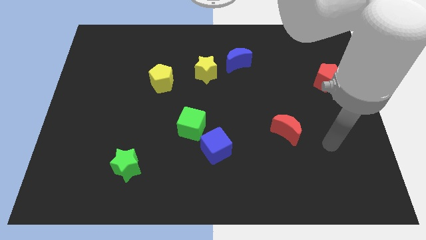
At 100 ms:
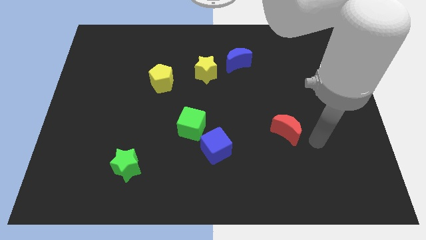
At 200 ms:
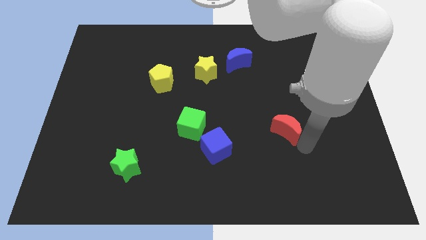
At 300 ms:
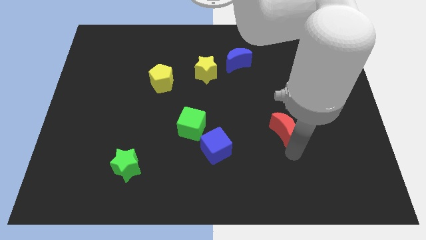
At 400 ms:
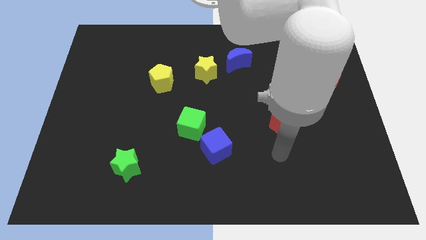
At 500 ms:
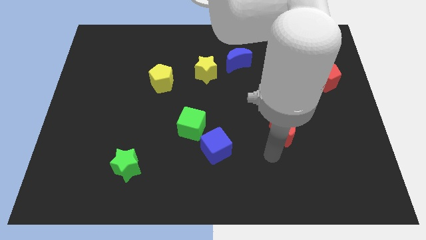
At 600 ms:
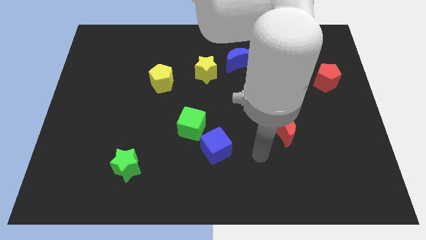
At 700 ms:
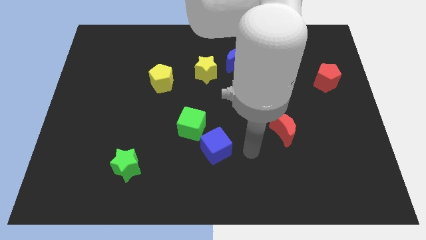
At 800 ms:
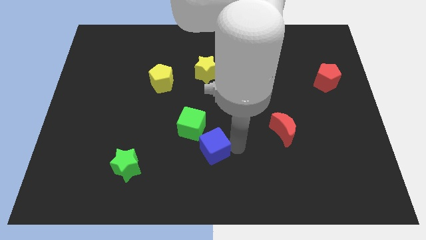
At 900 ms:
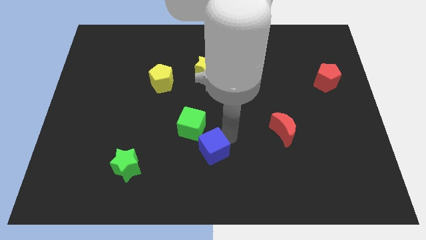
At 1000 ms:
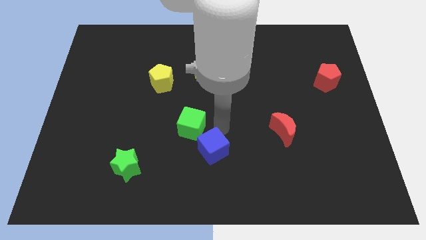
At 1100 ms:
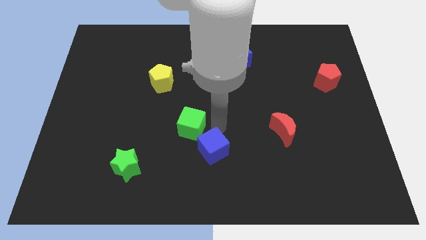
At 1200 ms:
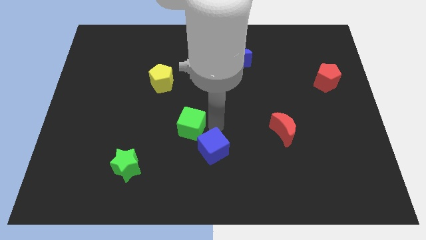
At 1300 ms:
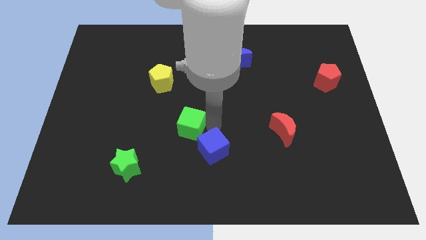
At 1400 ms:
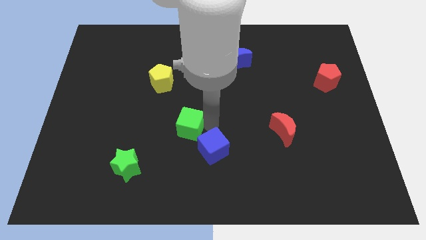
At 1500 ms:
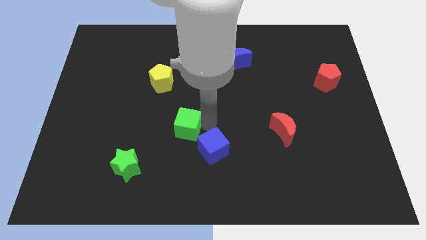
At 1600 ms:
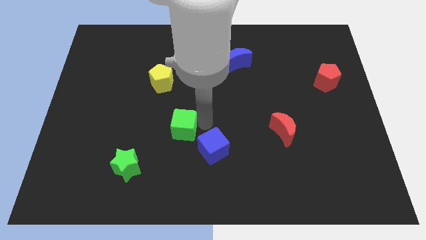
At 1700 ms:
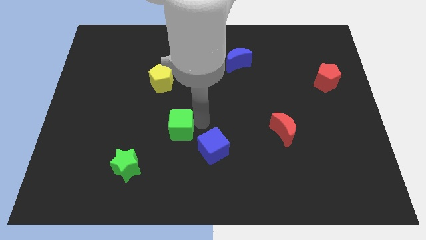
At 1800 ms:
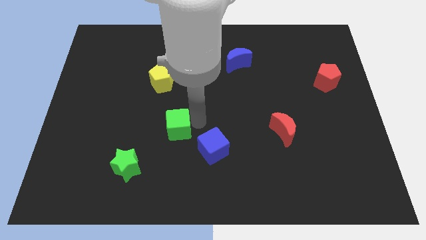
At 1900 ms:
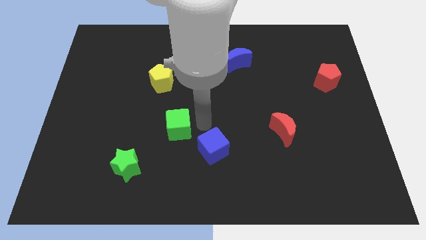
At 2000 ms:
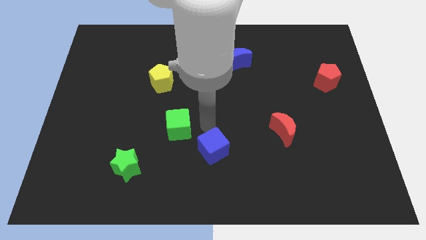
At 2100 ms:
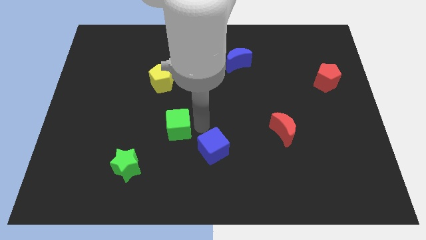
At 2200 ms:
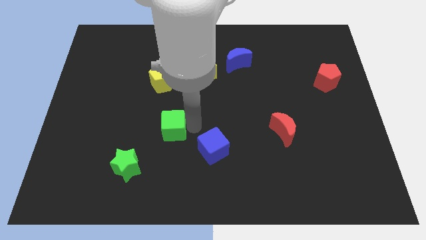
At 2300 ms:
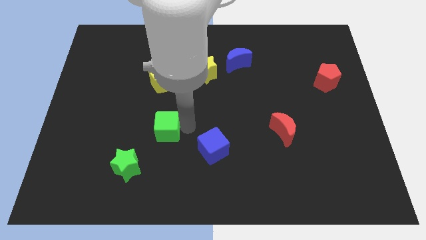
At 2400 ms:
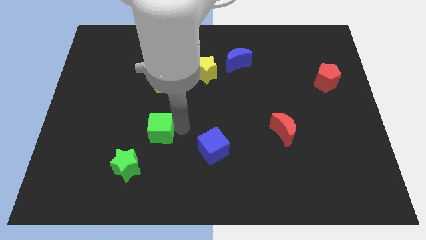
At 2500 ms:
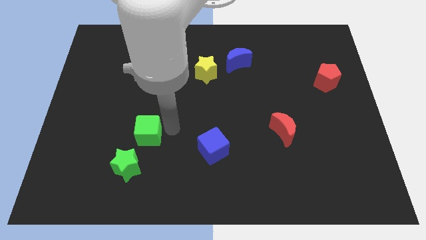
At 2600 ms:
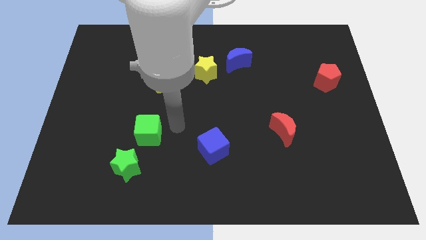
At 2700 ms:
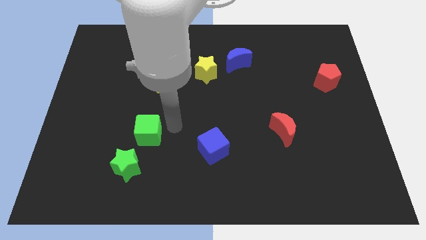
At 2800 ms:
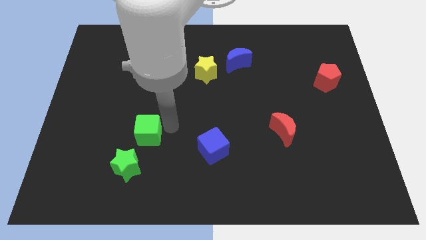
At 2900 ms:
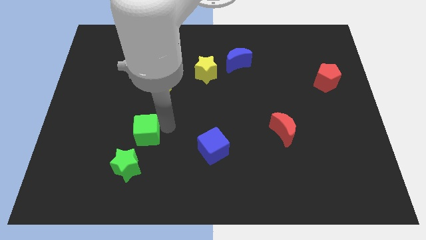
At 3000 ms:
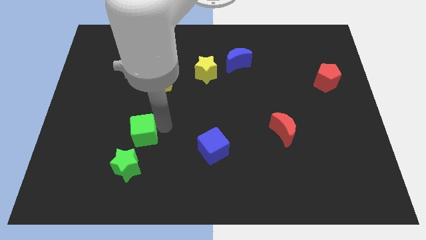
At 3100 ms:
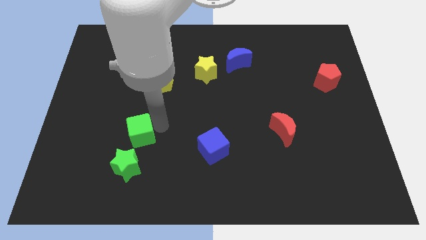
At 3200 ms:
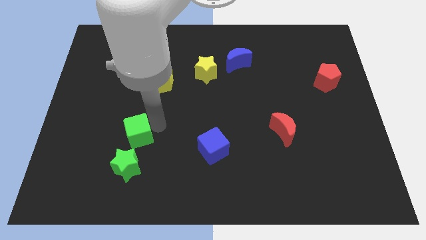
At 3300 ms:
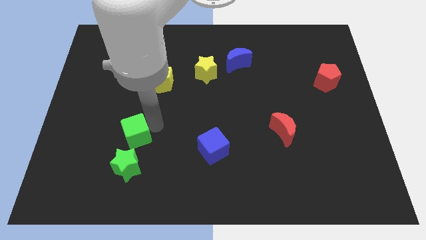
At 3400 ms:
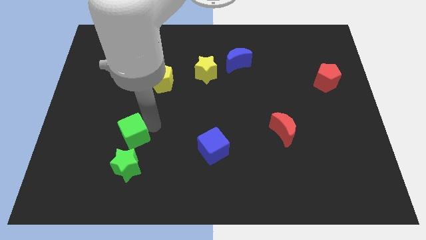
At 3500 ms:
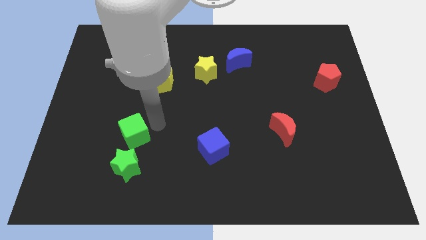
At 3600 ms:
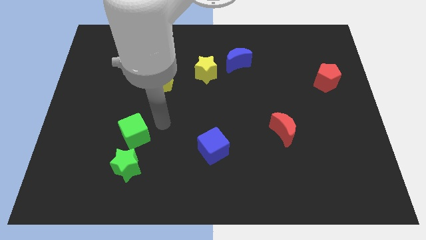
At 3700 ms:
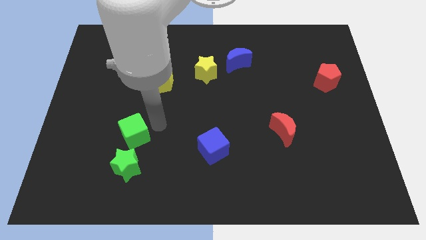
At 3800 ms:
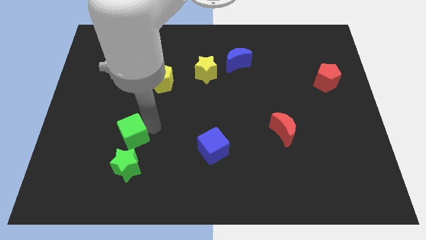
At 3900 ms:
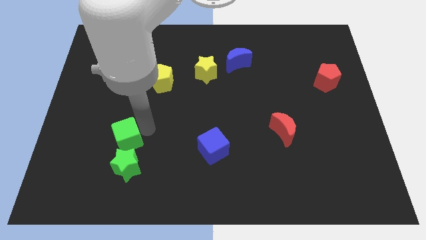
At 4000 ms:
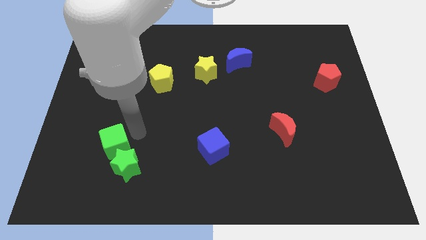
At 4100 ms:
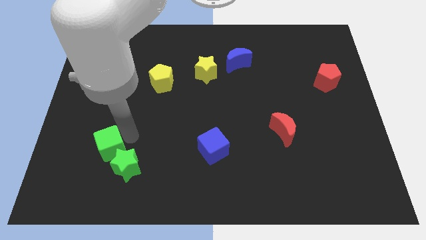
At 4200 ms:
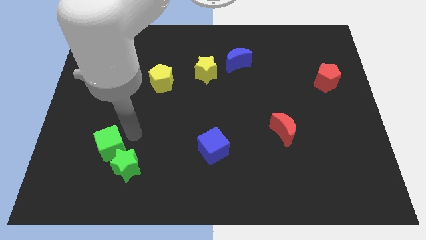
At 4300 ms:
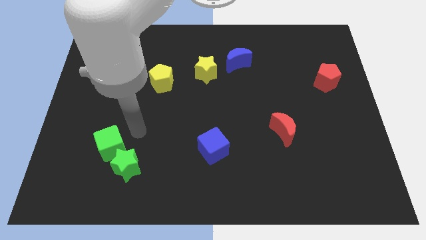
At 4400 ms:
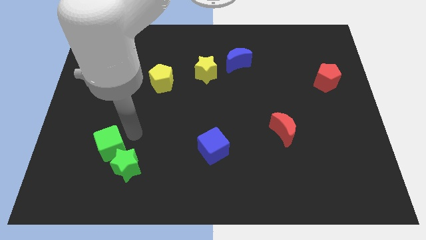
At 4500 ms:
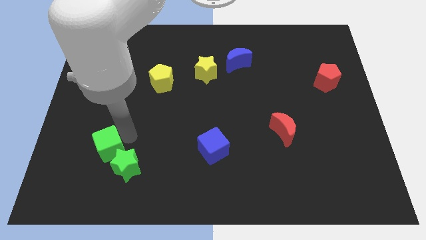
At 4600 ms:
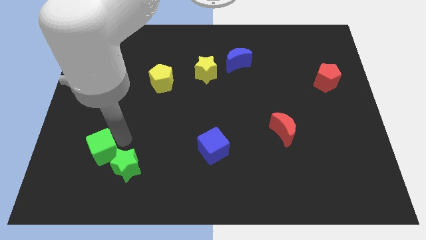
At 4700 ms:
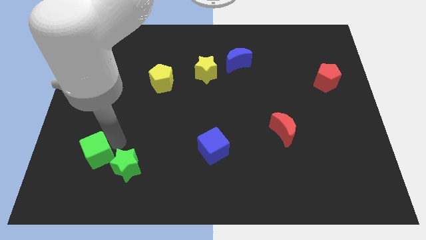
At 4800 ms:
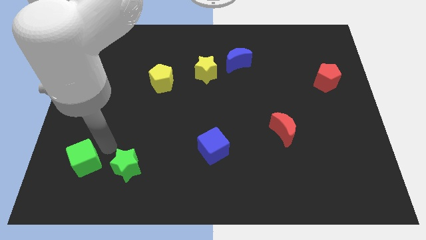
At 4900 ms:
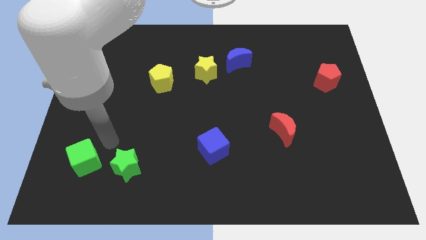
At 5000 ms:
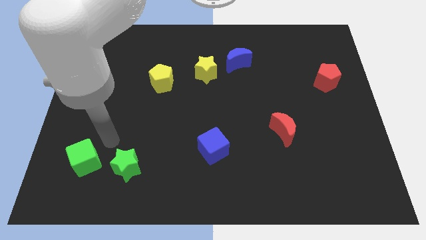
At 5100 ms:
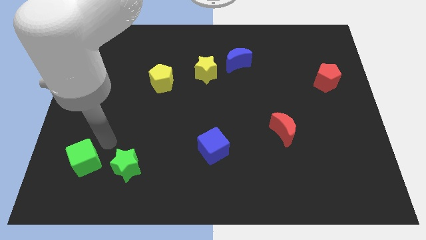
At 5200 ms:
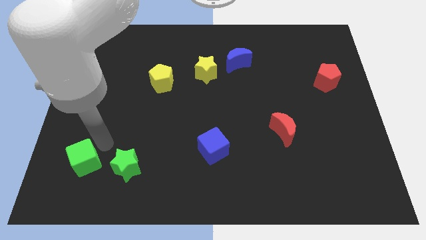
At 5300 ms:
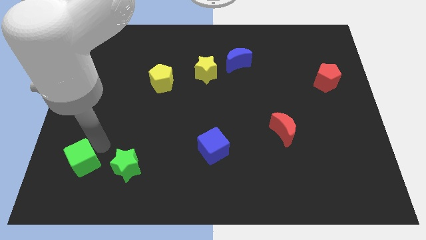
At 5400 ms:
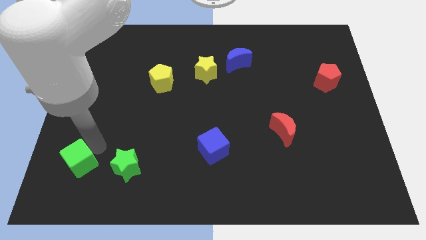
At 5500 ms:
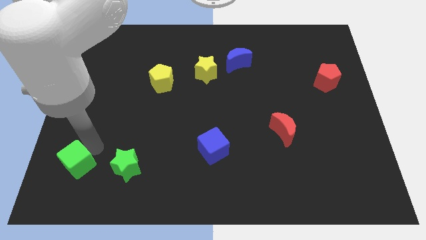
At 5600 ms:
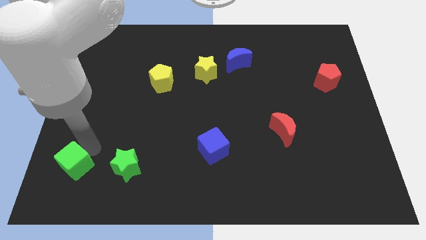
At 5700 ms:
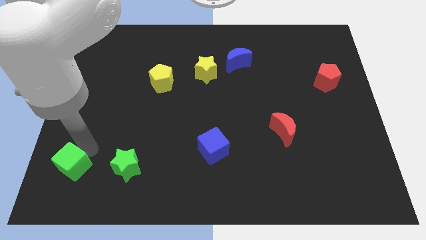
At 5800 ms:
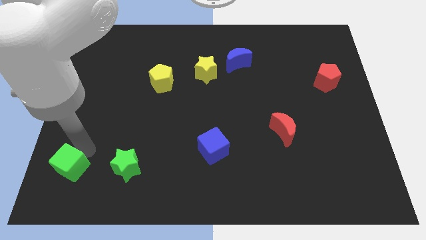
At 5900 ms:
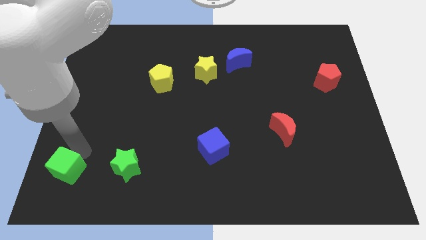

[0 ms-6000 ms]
push the green cube to the bottom left corner

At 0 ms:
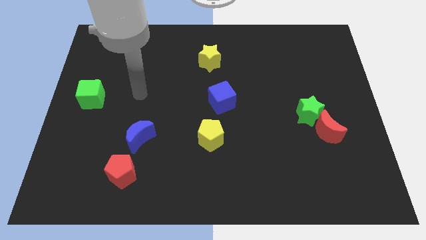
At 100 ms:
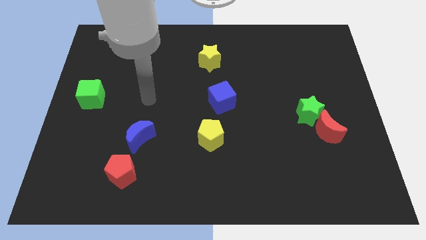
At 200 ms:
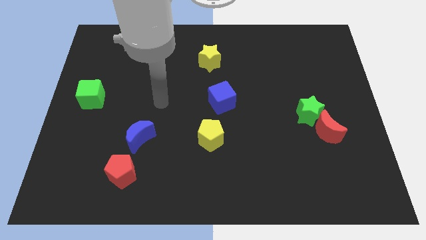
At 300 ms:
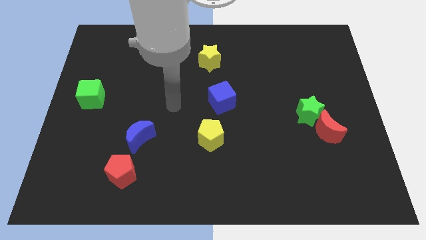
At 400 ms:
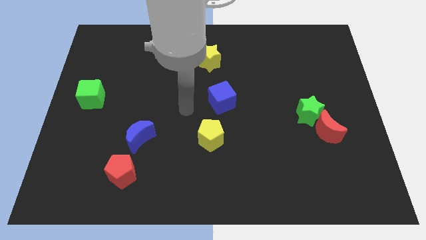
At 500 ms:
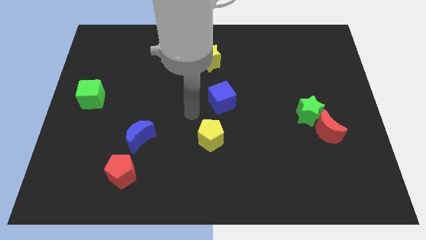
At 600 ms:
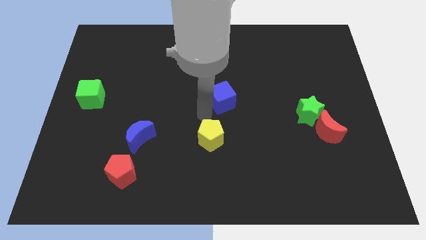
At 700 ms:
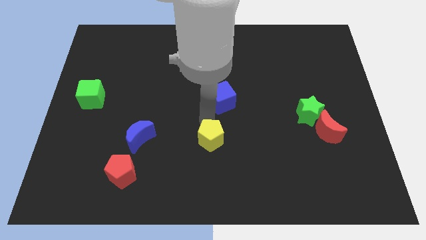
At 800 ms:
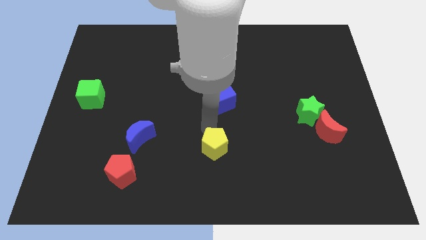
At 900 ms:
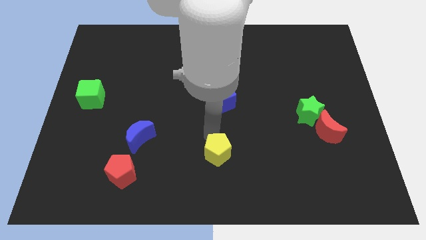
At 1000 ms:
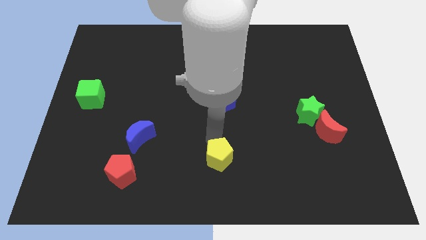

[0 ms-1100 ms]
put the yellow pentagon to the bottom

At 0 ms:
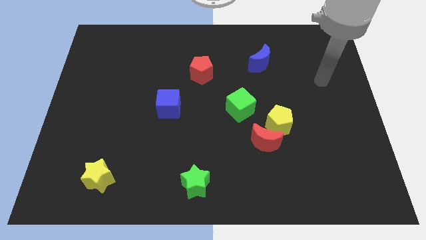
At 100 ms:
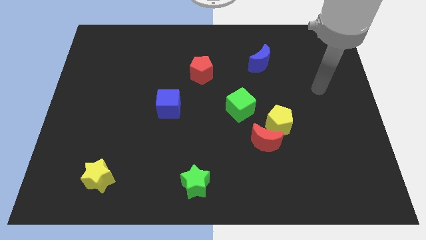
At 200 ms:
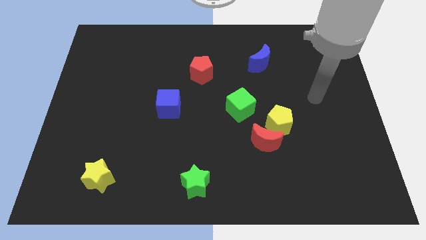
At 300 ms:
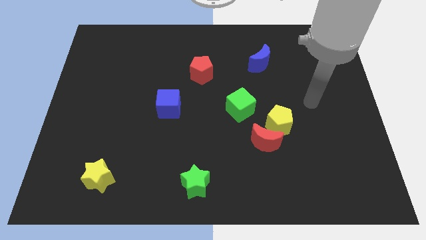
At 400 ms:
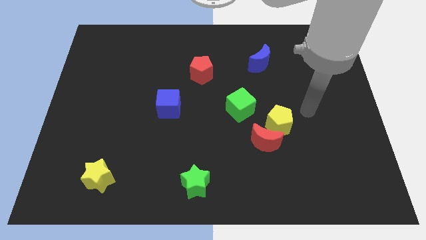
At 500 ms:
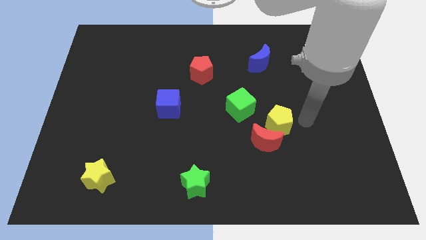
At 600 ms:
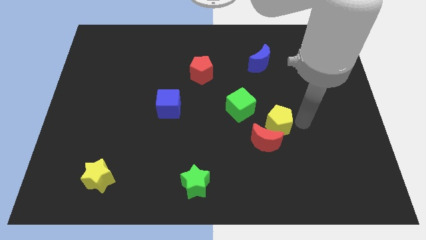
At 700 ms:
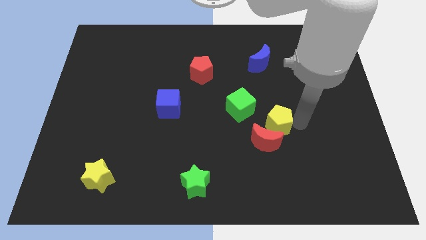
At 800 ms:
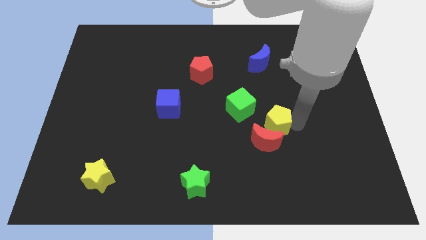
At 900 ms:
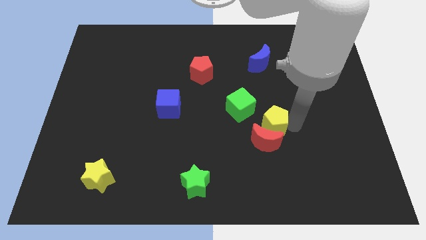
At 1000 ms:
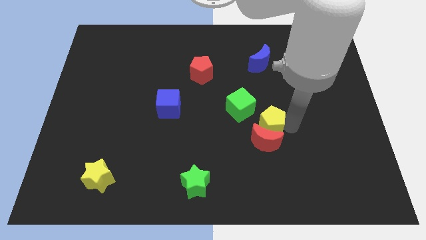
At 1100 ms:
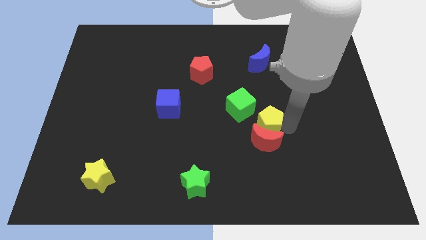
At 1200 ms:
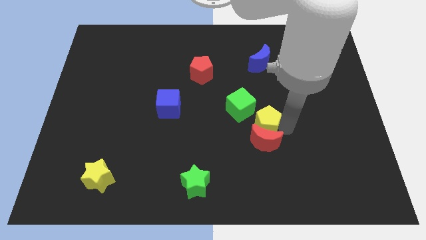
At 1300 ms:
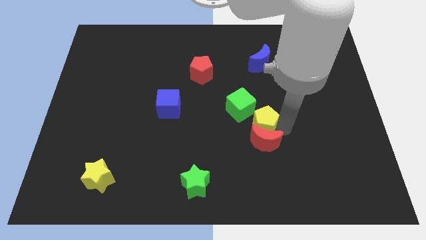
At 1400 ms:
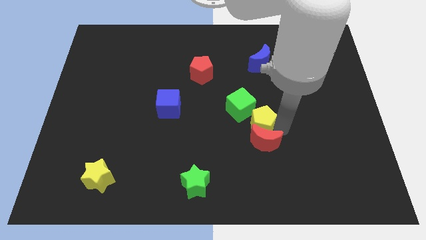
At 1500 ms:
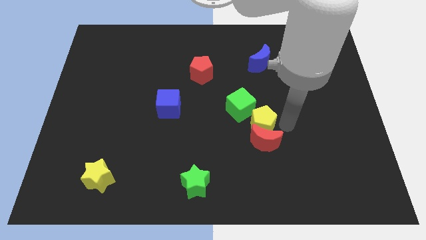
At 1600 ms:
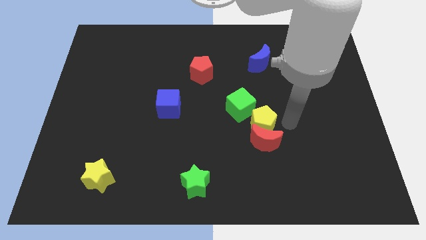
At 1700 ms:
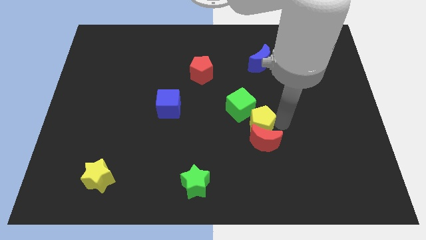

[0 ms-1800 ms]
move the yellow pentagon to the center
